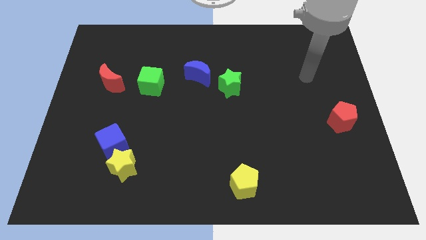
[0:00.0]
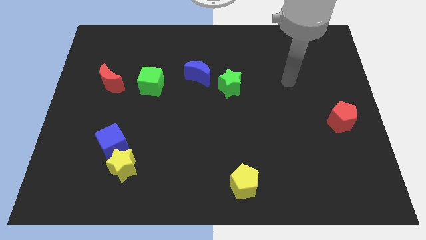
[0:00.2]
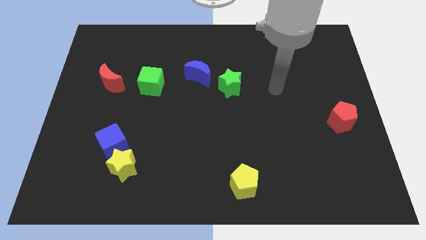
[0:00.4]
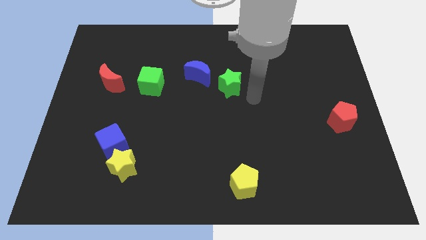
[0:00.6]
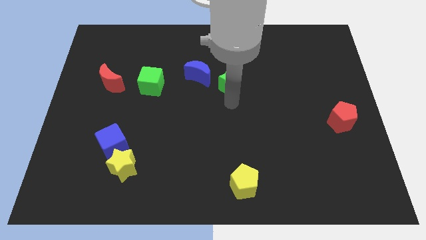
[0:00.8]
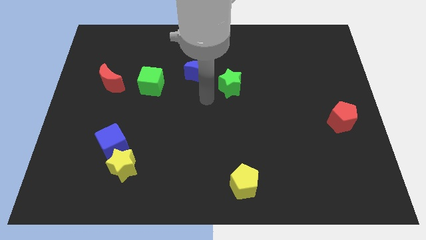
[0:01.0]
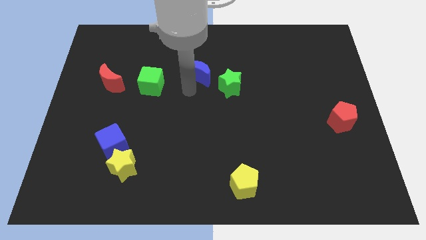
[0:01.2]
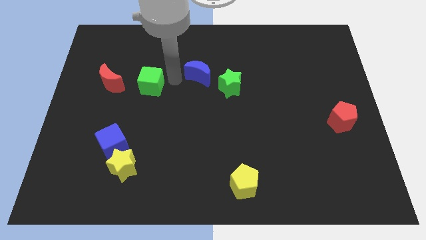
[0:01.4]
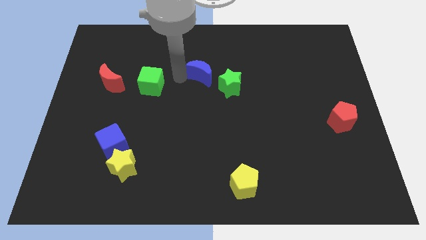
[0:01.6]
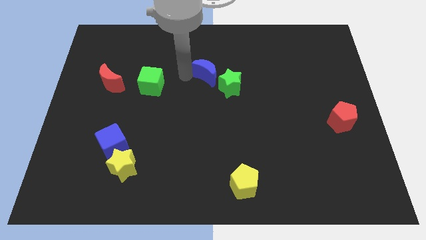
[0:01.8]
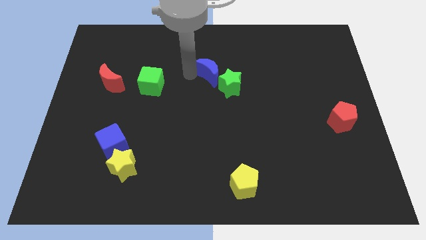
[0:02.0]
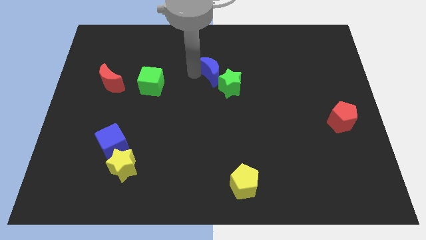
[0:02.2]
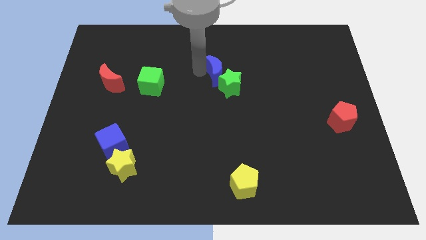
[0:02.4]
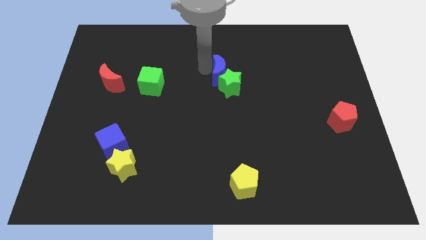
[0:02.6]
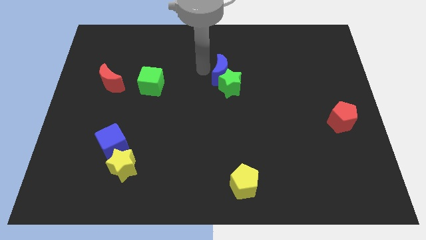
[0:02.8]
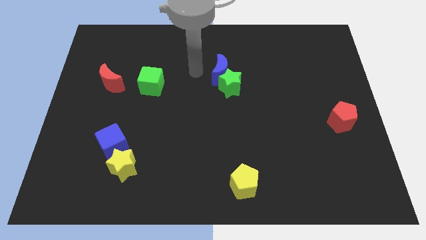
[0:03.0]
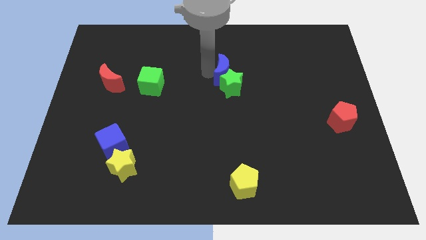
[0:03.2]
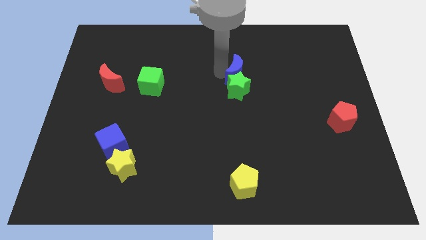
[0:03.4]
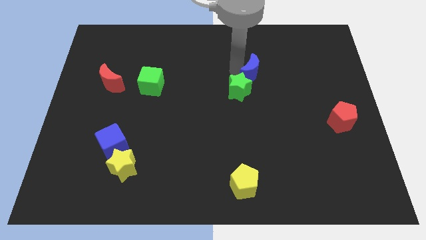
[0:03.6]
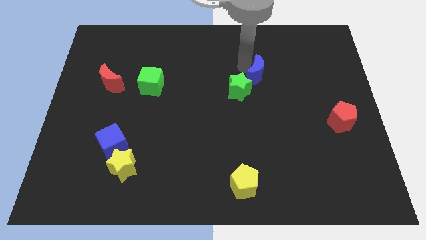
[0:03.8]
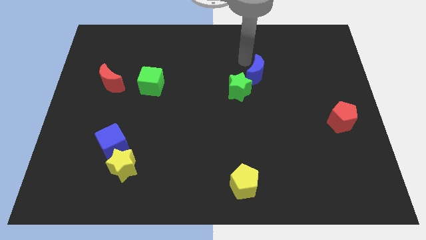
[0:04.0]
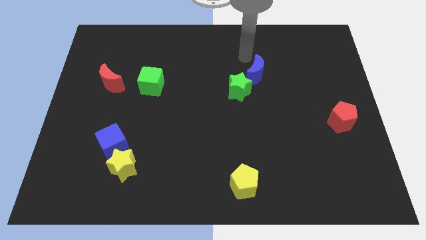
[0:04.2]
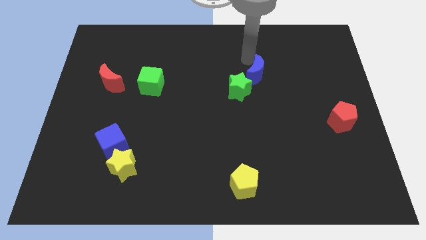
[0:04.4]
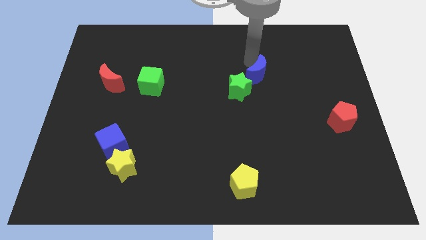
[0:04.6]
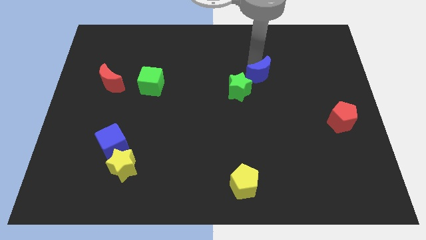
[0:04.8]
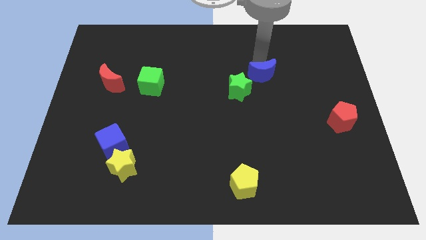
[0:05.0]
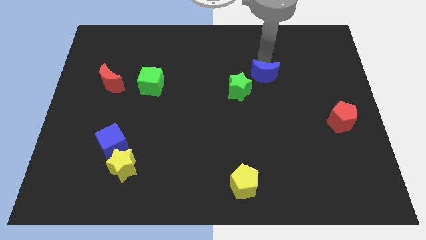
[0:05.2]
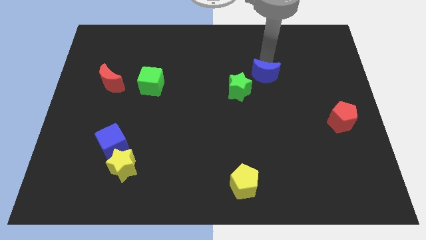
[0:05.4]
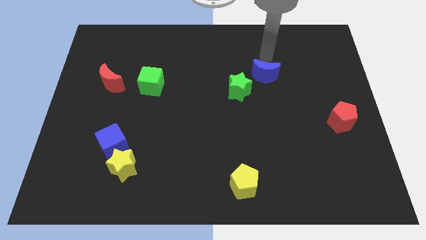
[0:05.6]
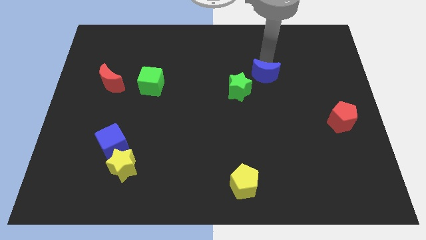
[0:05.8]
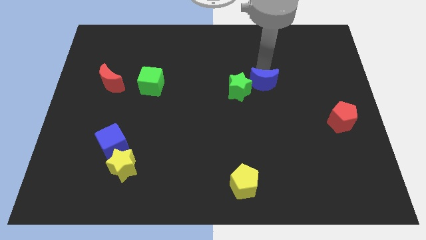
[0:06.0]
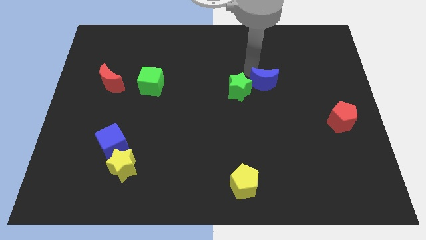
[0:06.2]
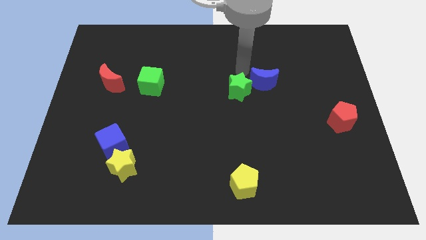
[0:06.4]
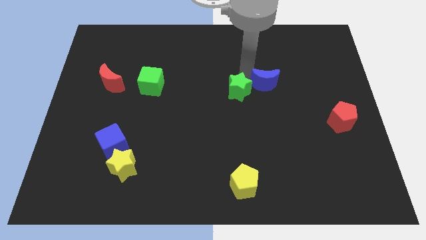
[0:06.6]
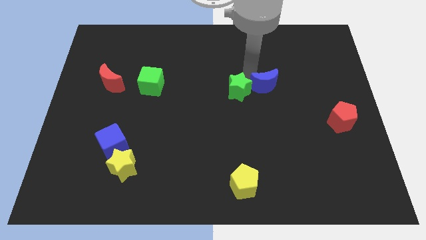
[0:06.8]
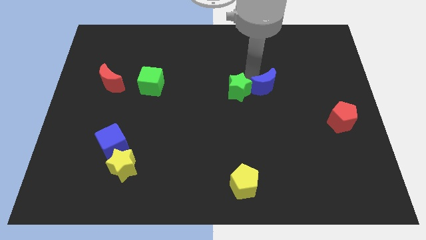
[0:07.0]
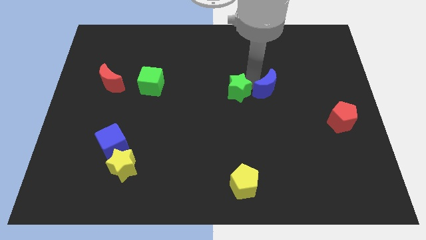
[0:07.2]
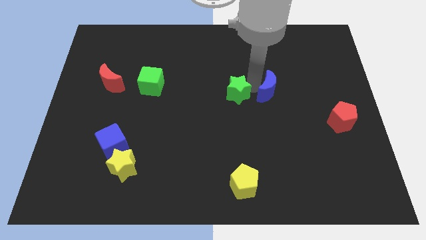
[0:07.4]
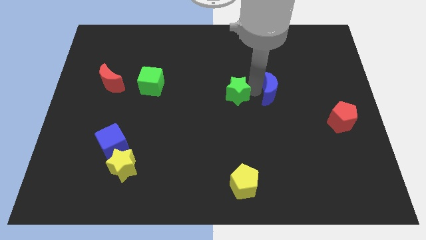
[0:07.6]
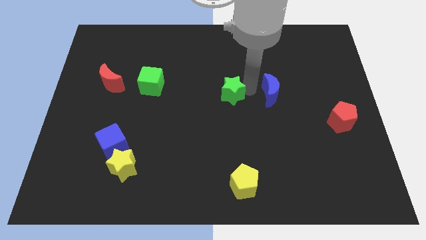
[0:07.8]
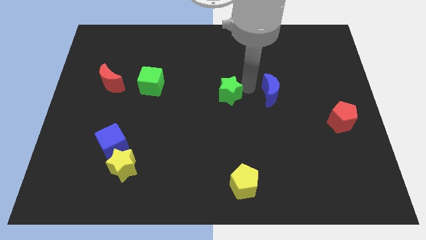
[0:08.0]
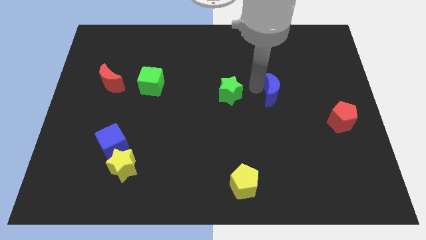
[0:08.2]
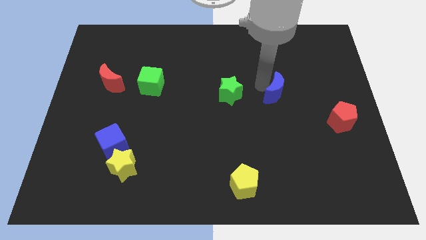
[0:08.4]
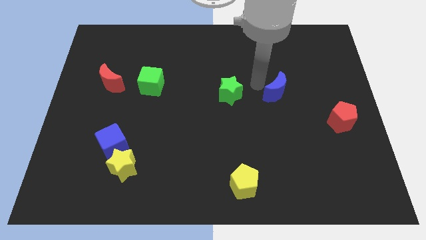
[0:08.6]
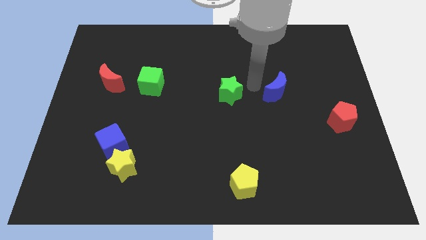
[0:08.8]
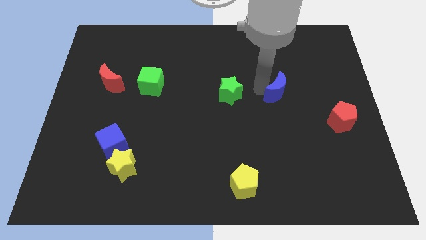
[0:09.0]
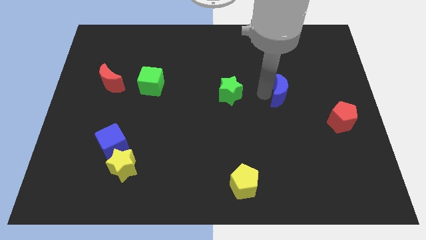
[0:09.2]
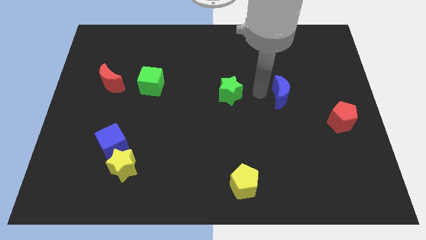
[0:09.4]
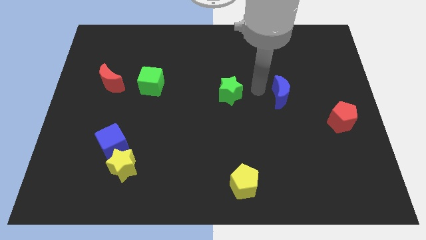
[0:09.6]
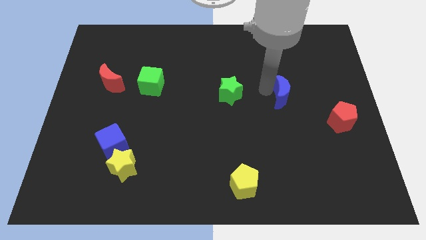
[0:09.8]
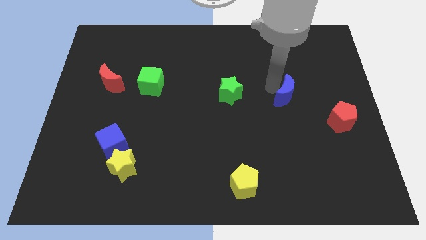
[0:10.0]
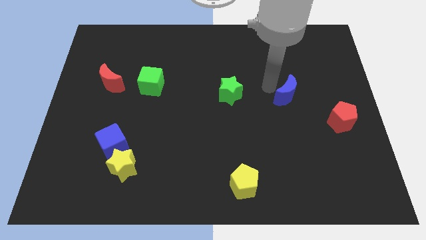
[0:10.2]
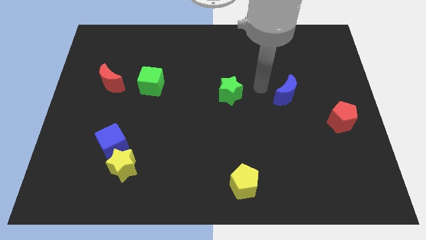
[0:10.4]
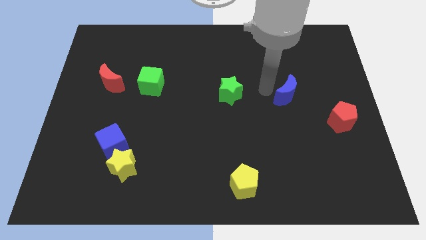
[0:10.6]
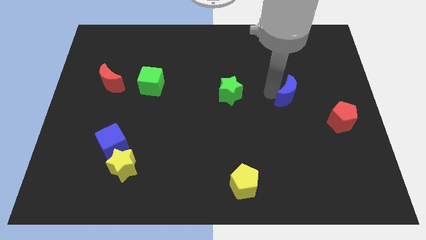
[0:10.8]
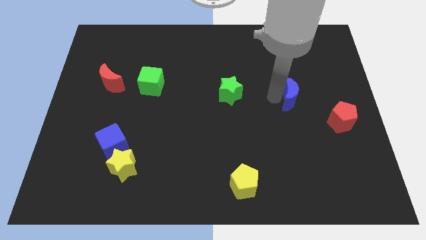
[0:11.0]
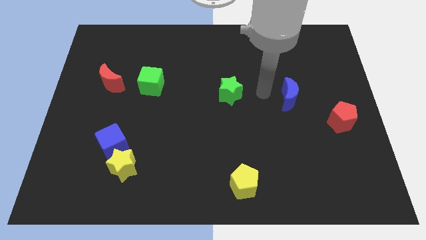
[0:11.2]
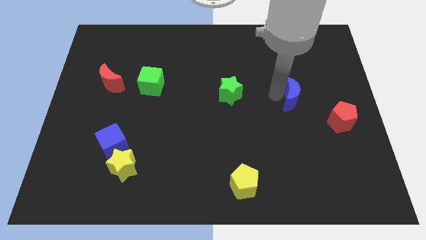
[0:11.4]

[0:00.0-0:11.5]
put the blue moon to the top left of the red pentagon

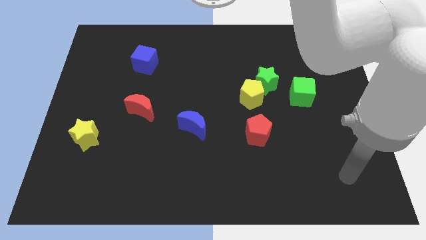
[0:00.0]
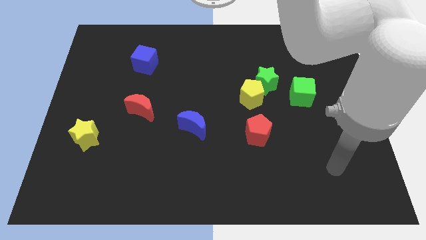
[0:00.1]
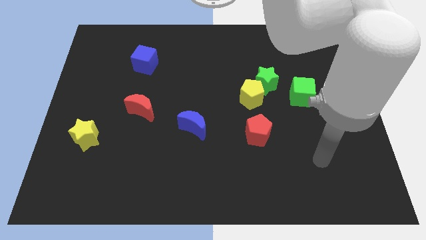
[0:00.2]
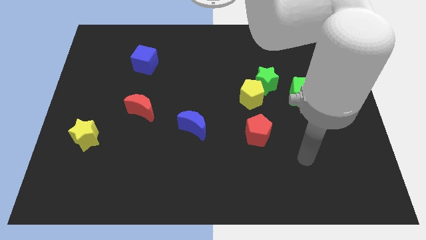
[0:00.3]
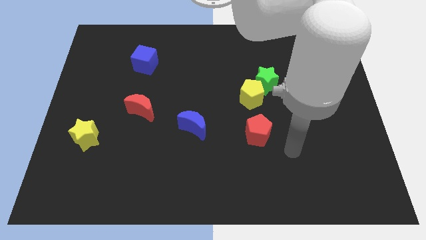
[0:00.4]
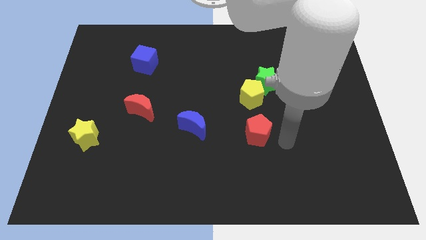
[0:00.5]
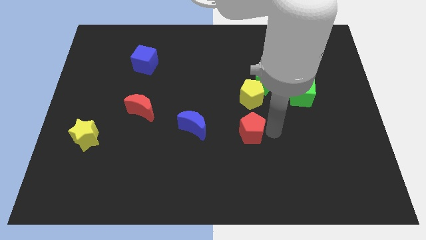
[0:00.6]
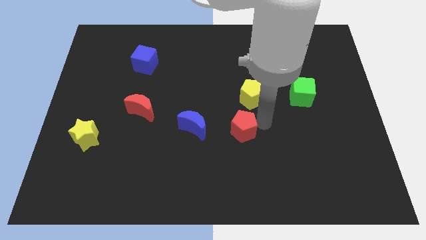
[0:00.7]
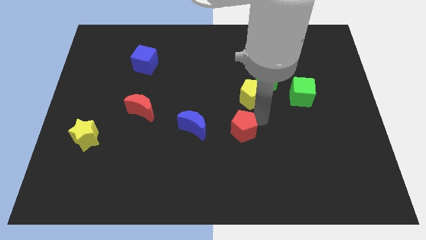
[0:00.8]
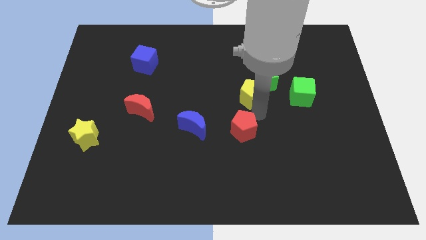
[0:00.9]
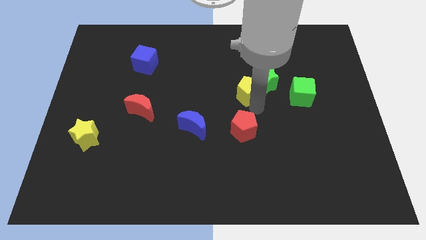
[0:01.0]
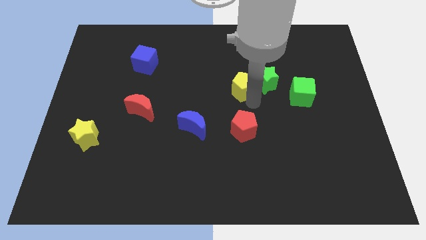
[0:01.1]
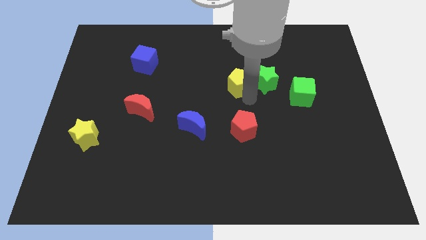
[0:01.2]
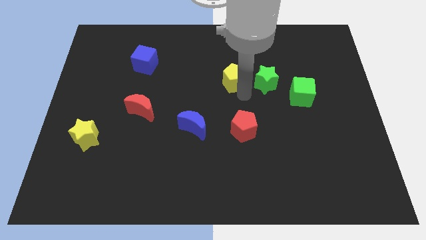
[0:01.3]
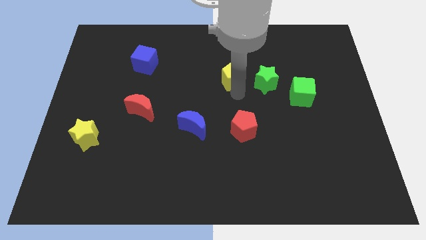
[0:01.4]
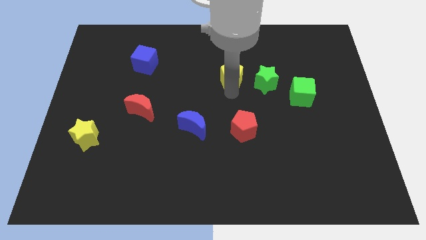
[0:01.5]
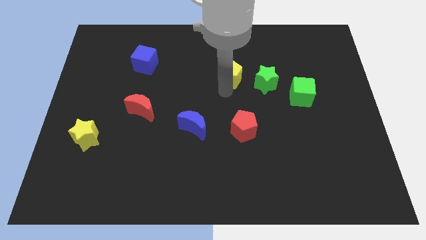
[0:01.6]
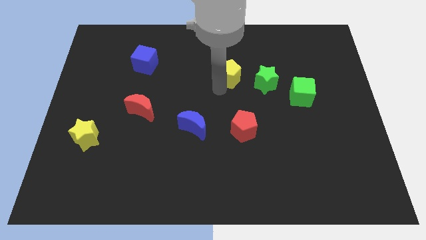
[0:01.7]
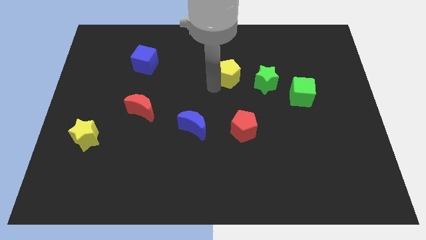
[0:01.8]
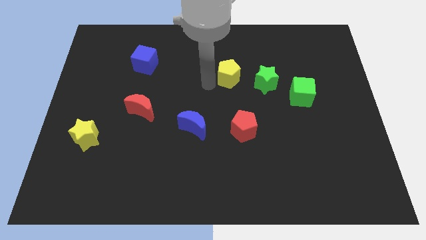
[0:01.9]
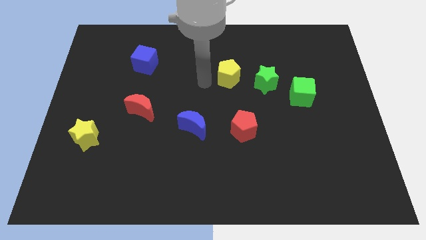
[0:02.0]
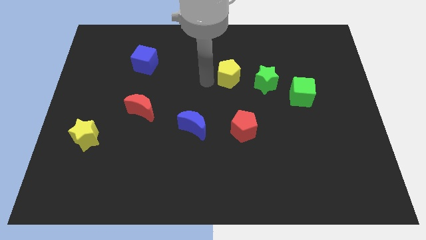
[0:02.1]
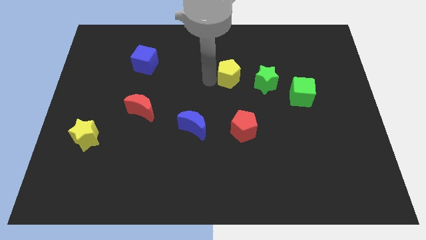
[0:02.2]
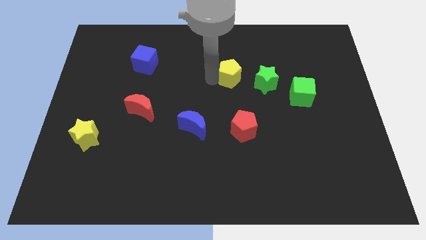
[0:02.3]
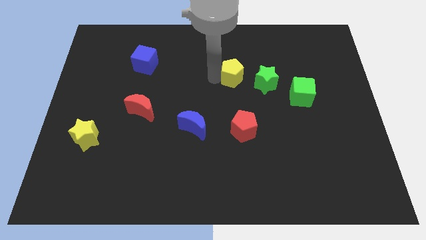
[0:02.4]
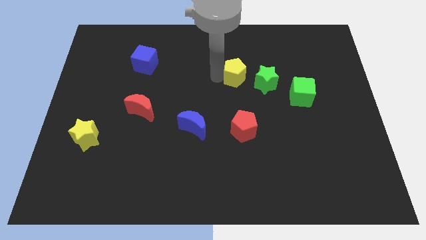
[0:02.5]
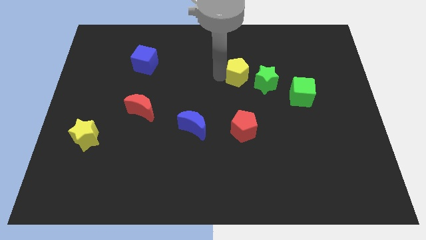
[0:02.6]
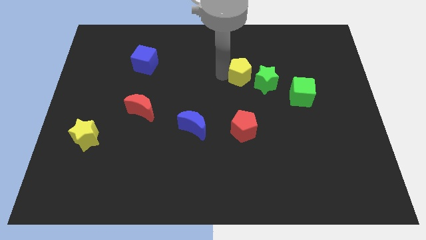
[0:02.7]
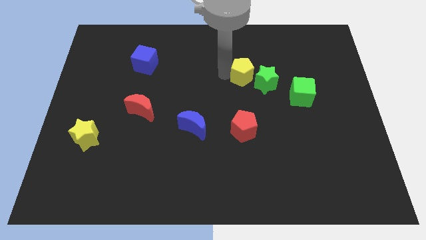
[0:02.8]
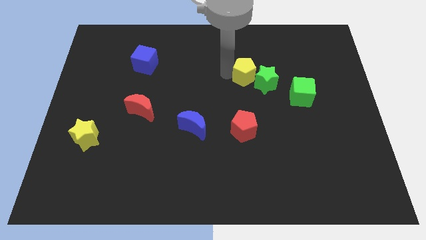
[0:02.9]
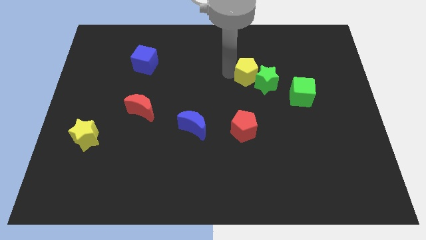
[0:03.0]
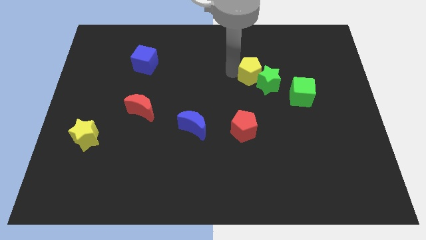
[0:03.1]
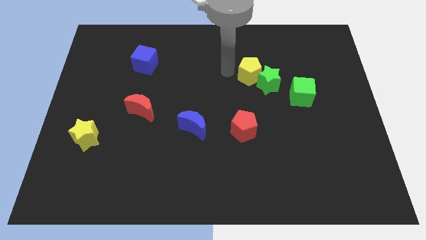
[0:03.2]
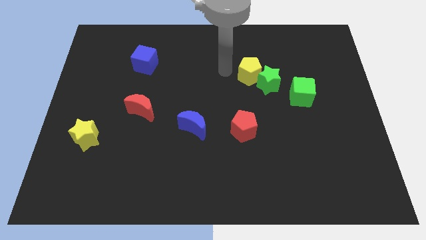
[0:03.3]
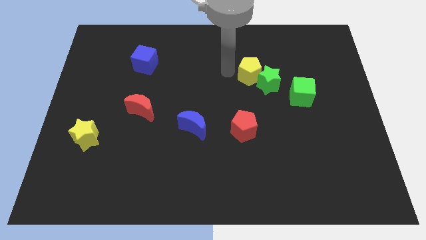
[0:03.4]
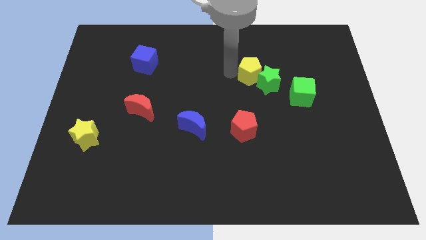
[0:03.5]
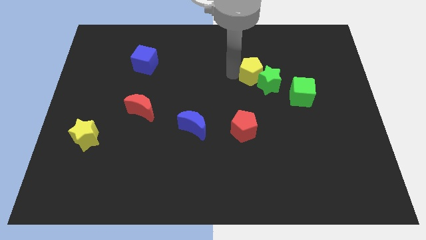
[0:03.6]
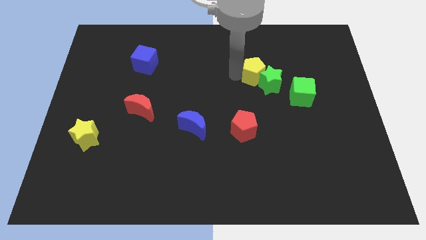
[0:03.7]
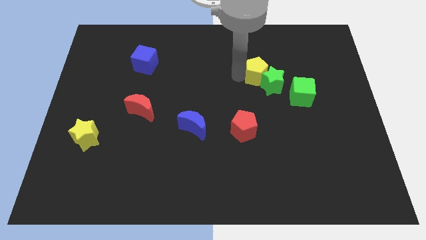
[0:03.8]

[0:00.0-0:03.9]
push the yellow pentagon diagonally up and to the left of the green cube
